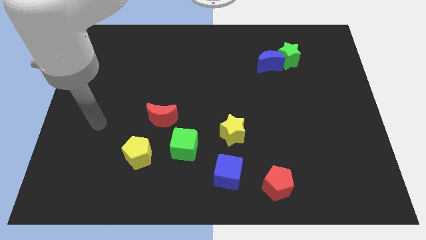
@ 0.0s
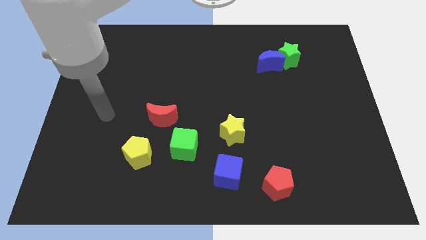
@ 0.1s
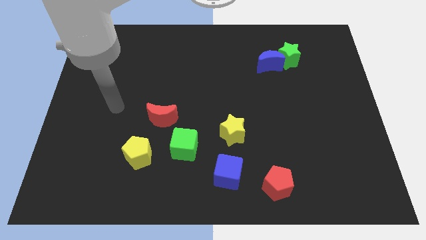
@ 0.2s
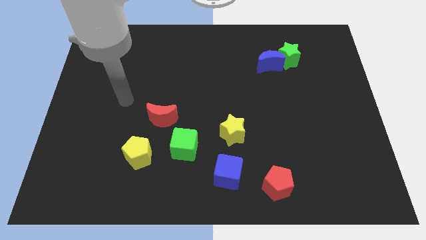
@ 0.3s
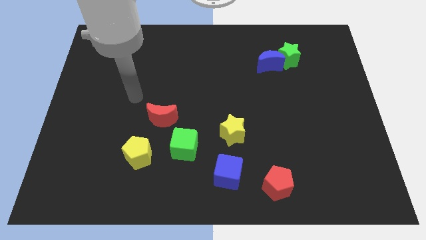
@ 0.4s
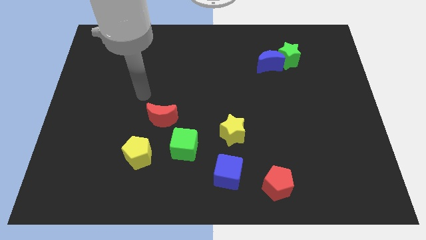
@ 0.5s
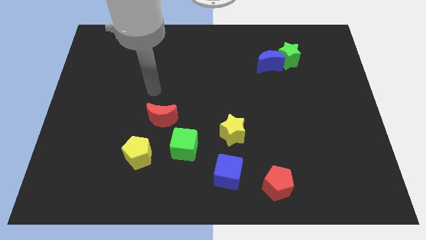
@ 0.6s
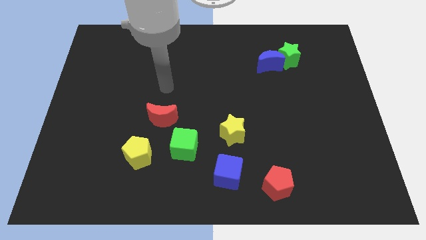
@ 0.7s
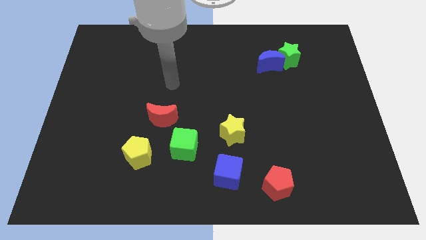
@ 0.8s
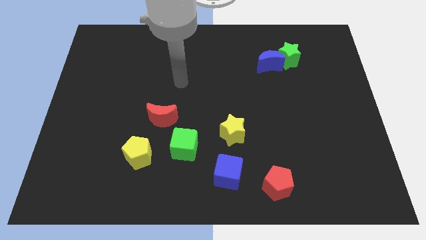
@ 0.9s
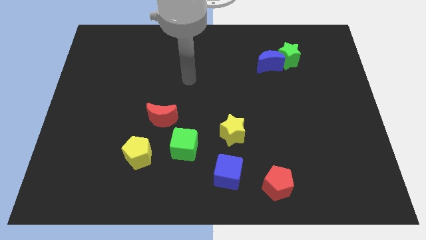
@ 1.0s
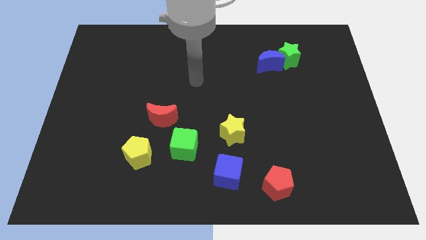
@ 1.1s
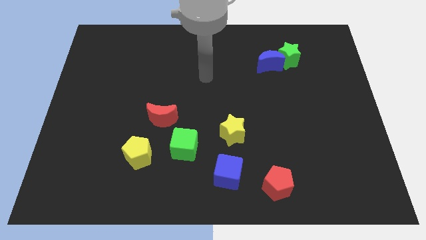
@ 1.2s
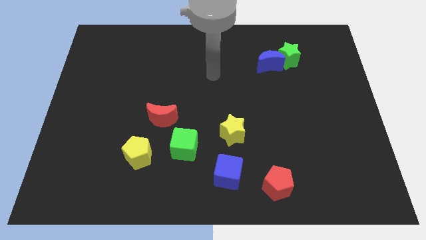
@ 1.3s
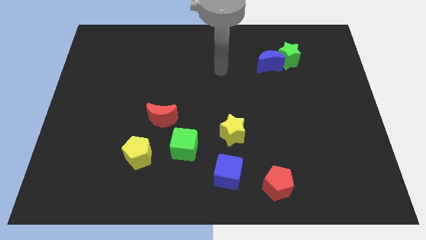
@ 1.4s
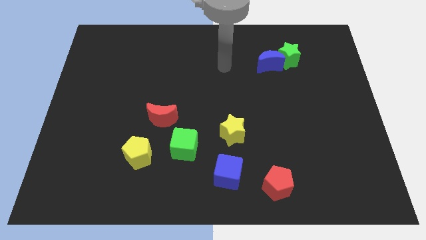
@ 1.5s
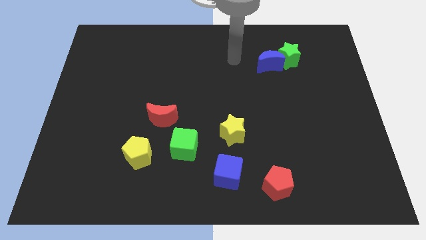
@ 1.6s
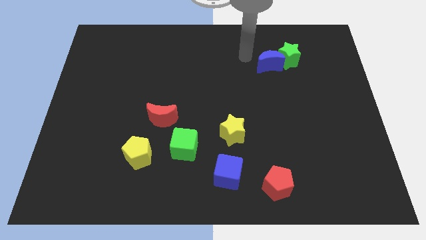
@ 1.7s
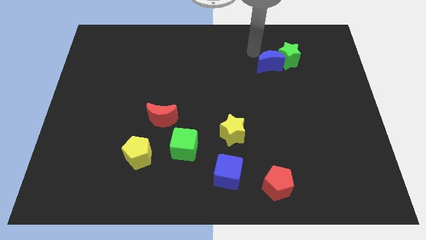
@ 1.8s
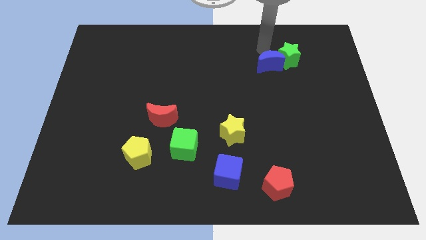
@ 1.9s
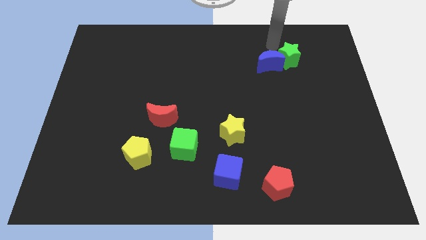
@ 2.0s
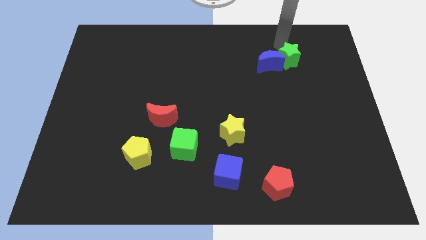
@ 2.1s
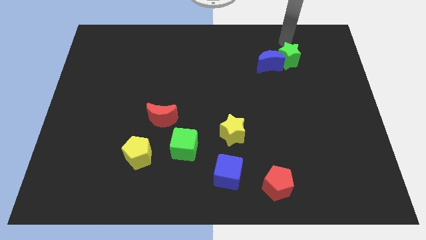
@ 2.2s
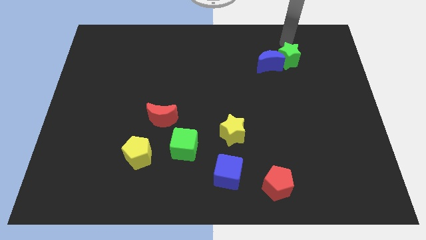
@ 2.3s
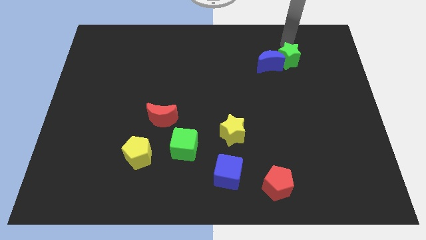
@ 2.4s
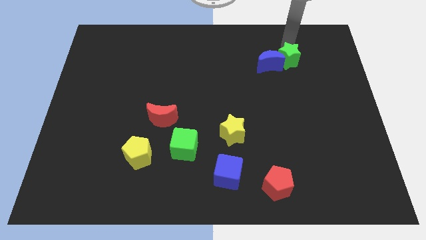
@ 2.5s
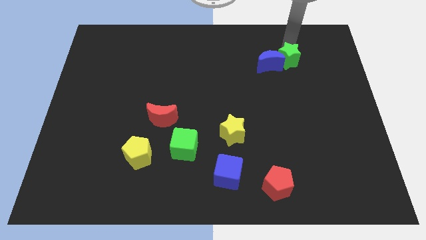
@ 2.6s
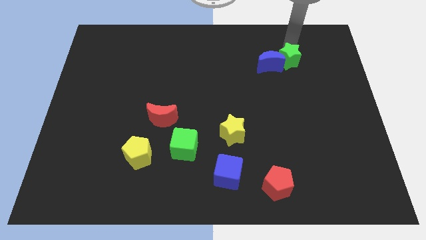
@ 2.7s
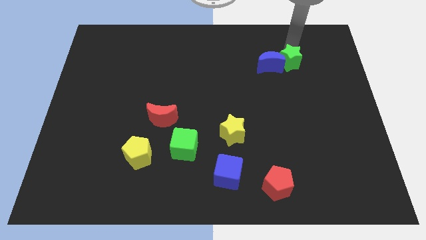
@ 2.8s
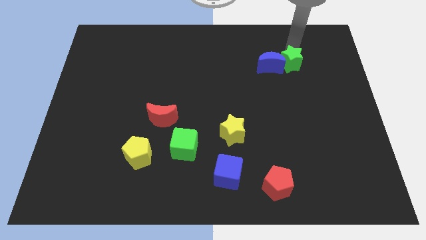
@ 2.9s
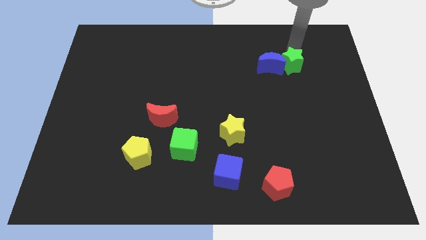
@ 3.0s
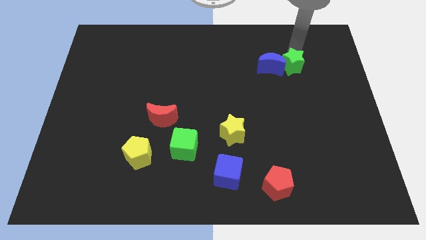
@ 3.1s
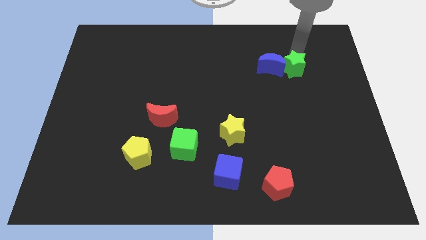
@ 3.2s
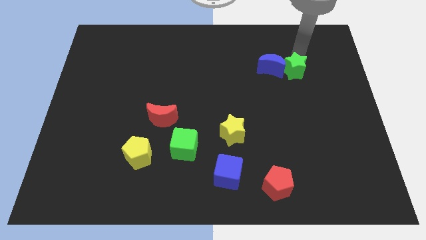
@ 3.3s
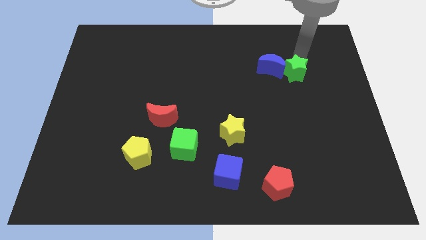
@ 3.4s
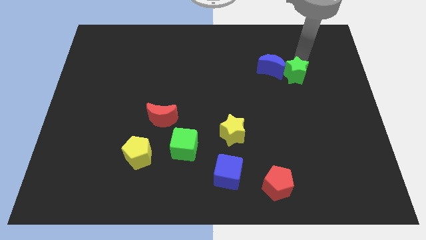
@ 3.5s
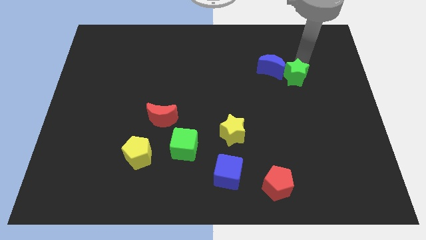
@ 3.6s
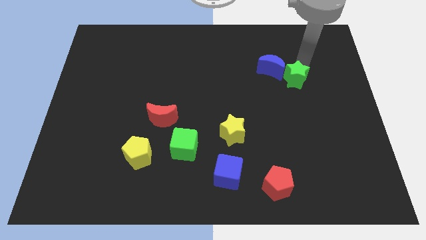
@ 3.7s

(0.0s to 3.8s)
slightly push the green star downwards

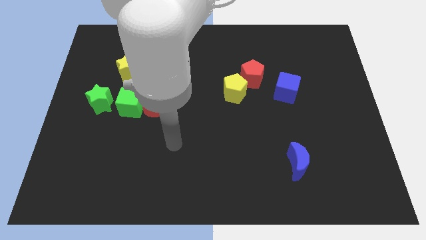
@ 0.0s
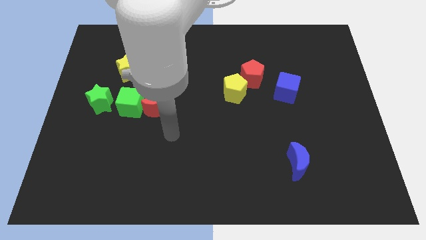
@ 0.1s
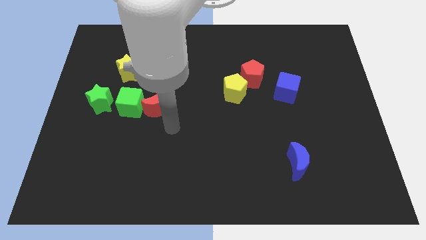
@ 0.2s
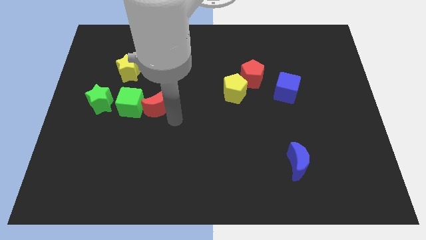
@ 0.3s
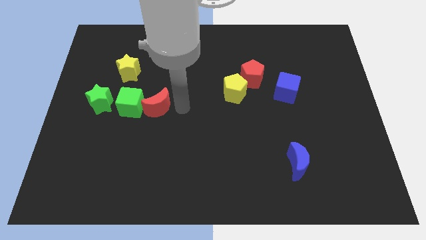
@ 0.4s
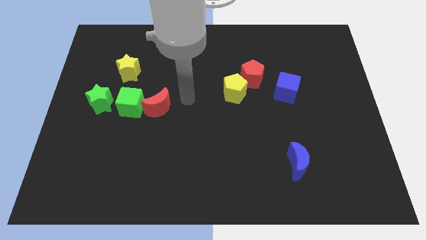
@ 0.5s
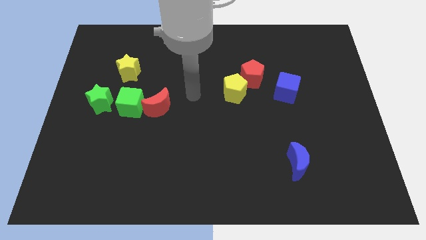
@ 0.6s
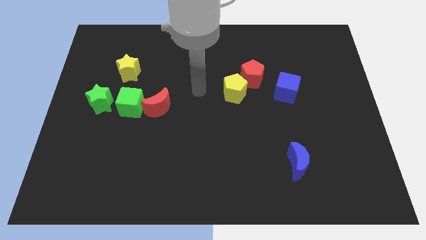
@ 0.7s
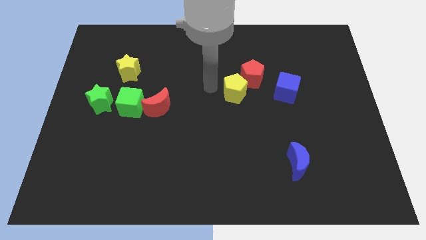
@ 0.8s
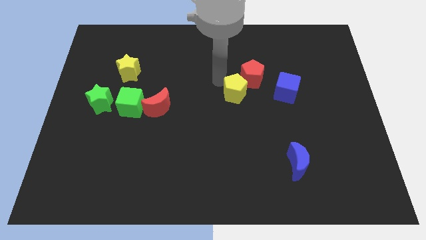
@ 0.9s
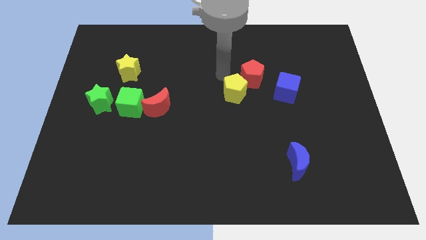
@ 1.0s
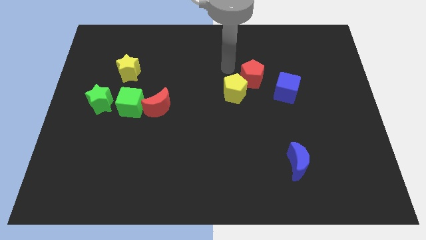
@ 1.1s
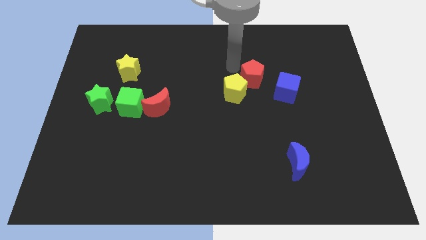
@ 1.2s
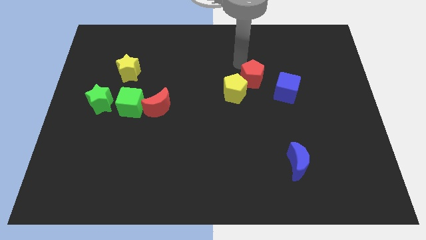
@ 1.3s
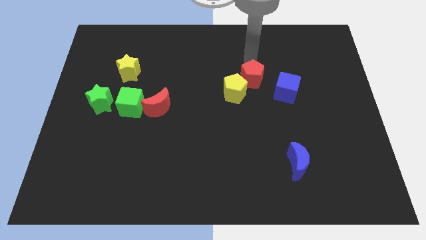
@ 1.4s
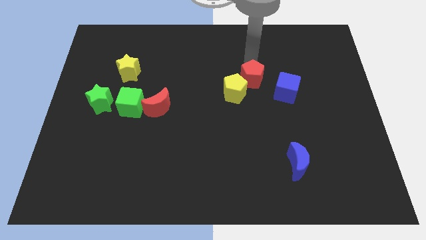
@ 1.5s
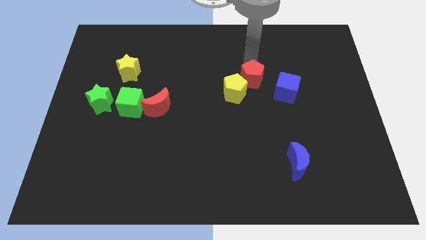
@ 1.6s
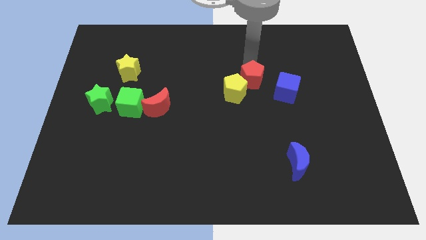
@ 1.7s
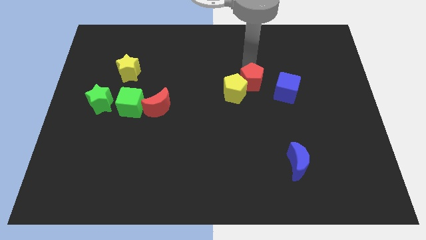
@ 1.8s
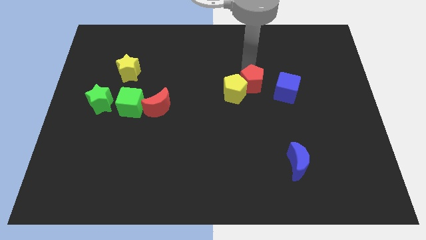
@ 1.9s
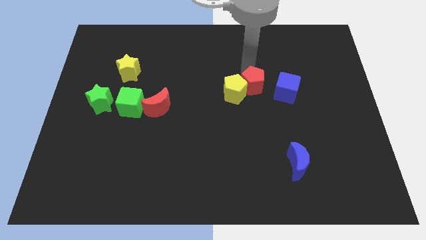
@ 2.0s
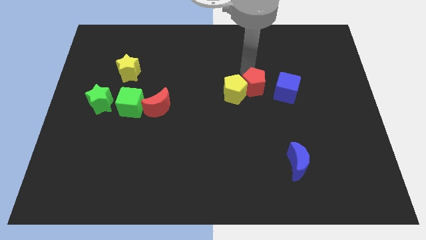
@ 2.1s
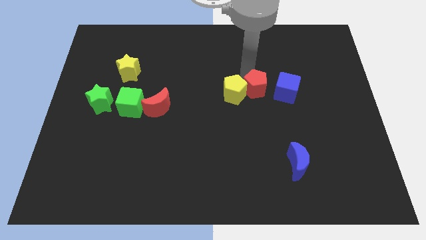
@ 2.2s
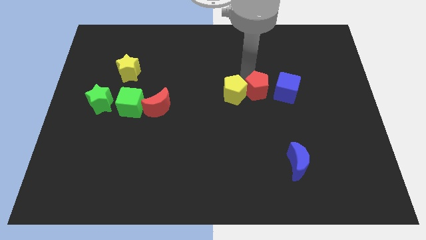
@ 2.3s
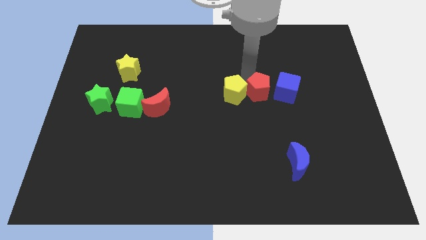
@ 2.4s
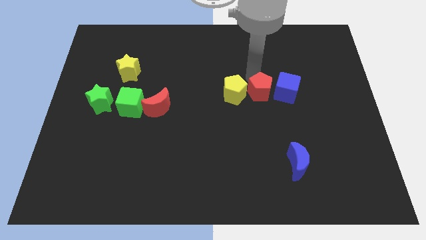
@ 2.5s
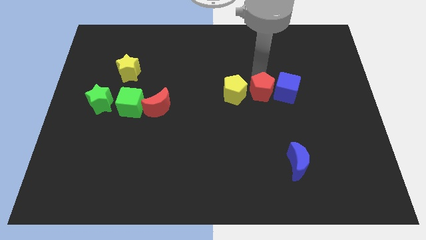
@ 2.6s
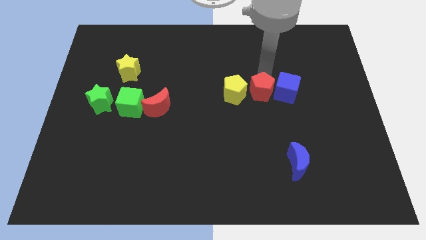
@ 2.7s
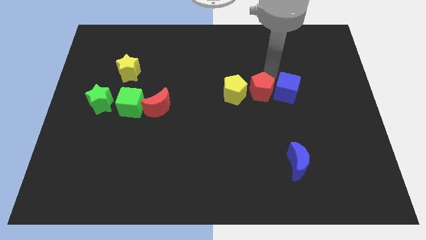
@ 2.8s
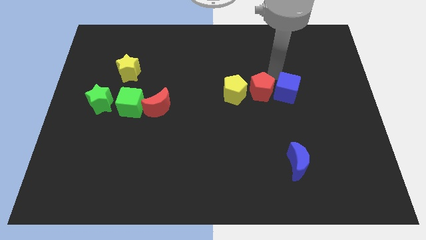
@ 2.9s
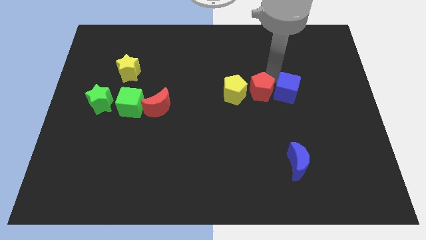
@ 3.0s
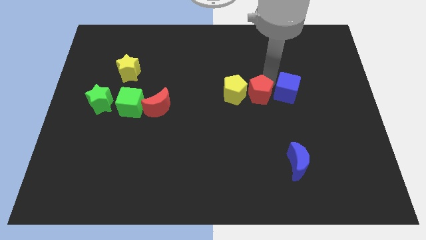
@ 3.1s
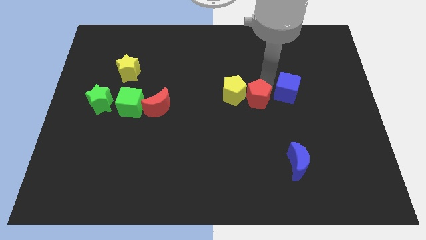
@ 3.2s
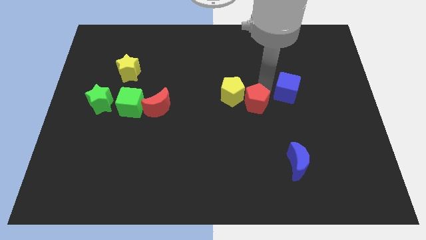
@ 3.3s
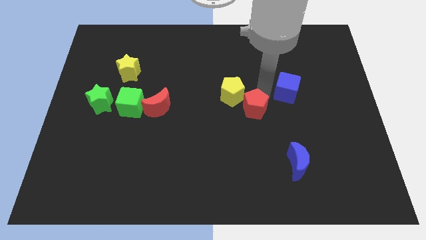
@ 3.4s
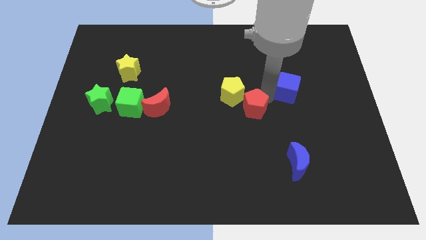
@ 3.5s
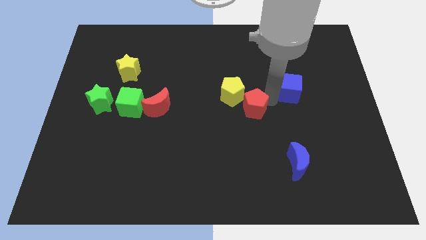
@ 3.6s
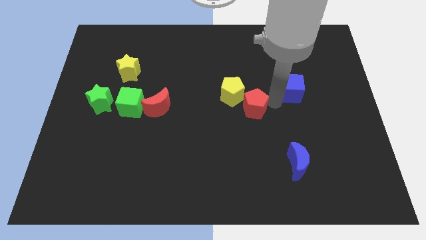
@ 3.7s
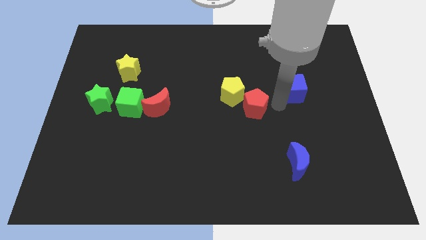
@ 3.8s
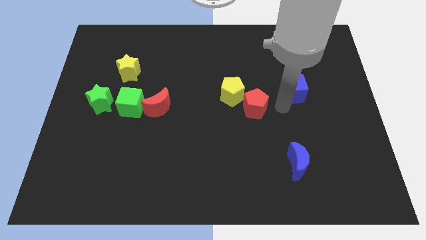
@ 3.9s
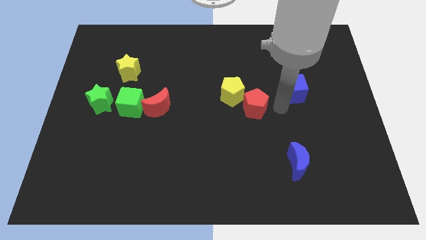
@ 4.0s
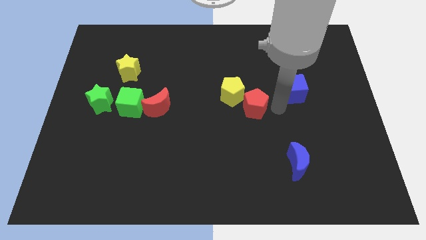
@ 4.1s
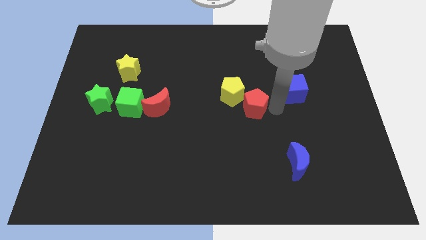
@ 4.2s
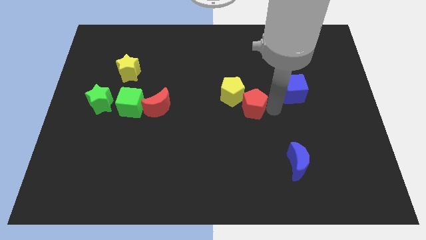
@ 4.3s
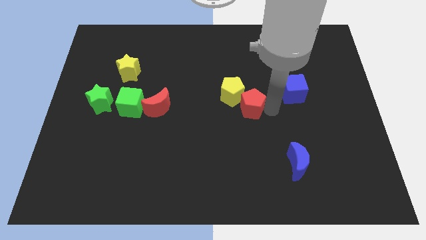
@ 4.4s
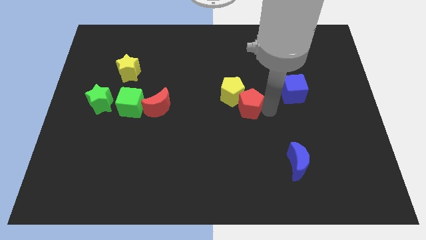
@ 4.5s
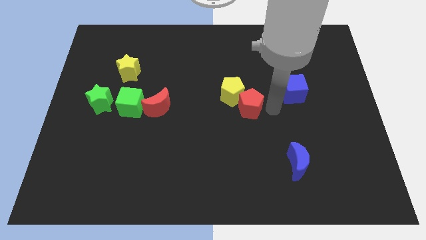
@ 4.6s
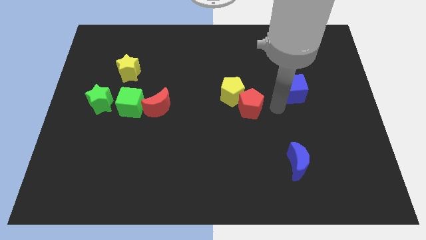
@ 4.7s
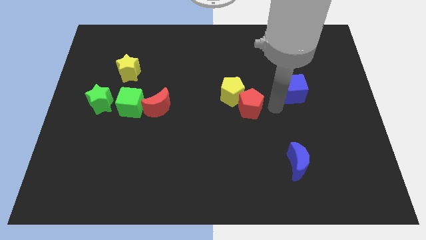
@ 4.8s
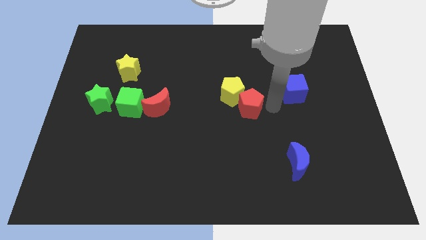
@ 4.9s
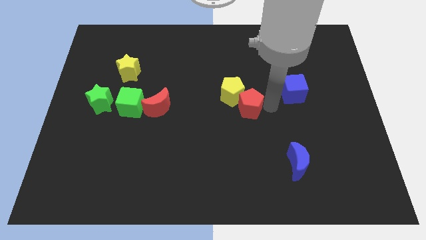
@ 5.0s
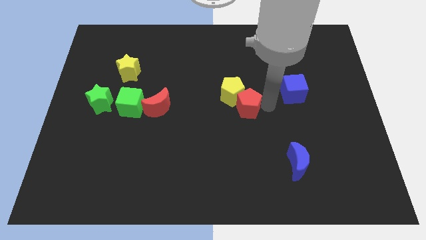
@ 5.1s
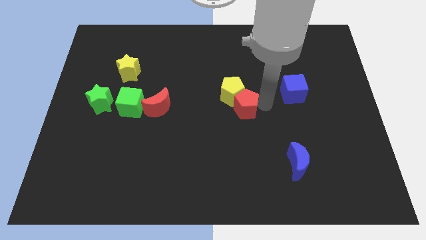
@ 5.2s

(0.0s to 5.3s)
push the red pentagon diagonally downwards and to the left somewhat
